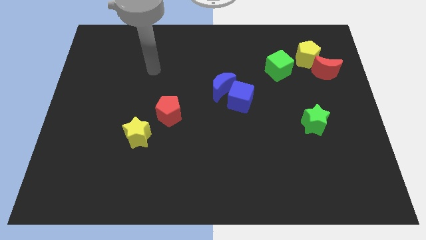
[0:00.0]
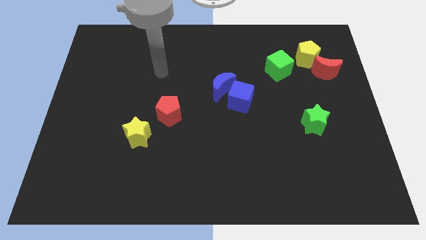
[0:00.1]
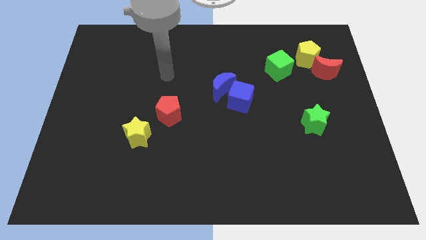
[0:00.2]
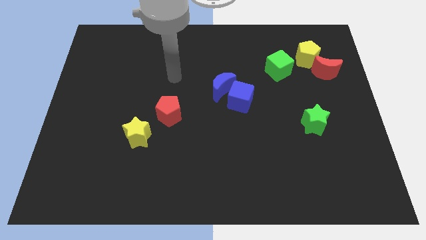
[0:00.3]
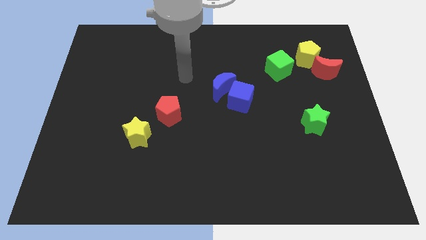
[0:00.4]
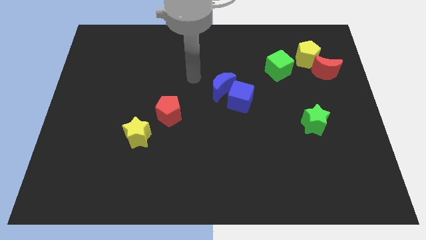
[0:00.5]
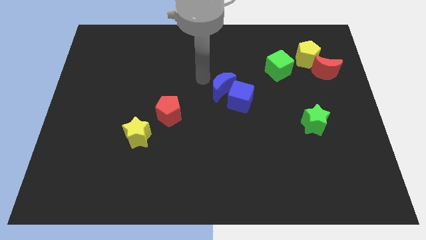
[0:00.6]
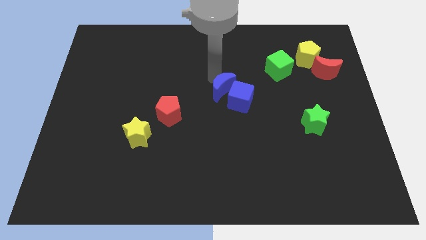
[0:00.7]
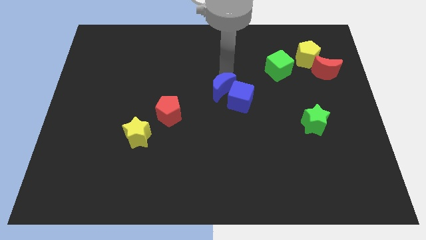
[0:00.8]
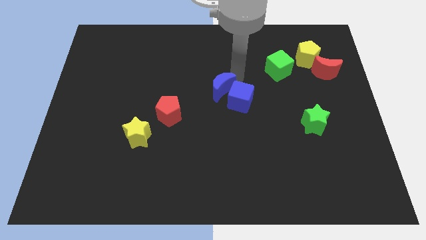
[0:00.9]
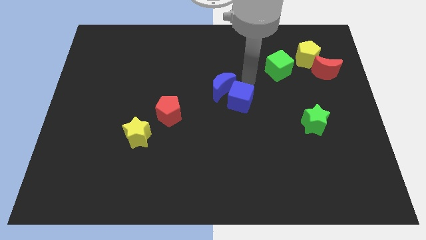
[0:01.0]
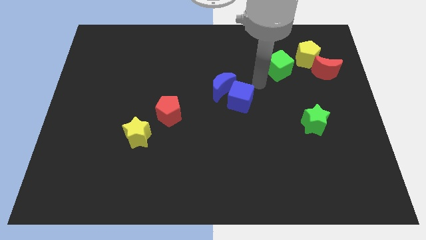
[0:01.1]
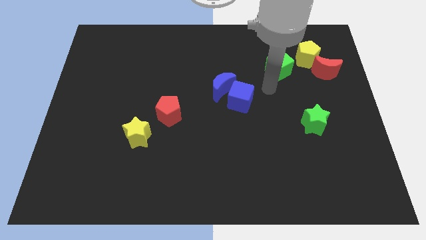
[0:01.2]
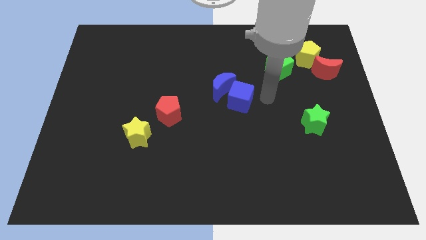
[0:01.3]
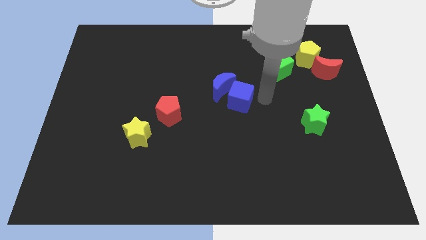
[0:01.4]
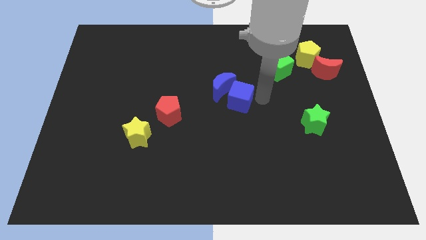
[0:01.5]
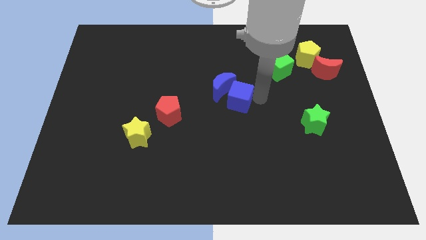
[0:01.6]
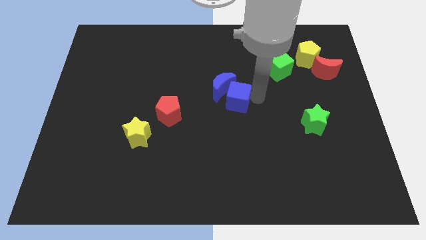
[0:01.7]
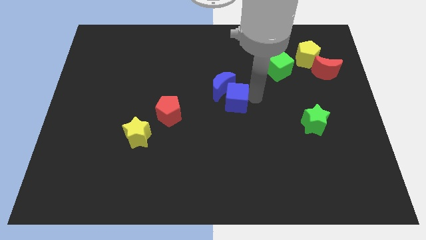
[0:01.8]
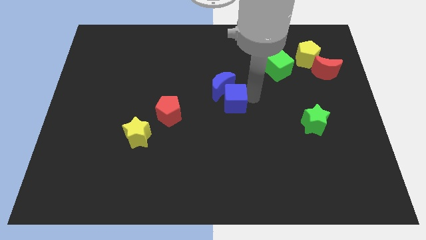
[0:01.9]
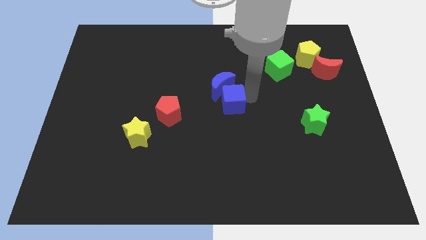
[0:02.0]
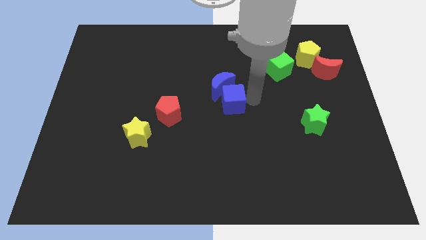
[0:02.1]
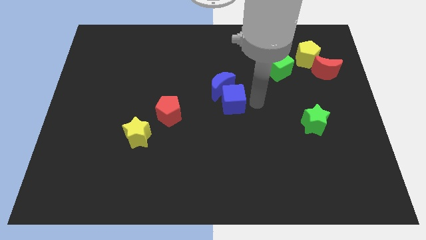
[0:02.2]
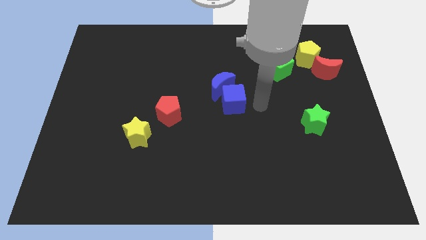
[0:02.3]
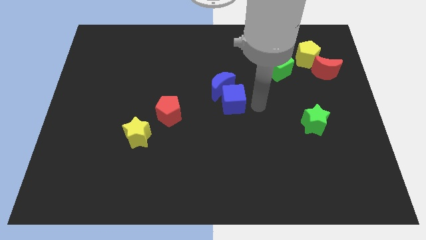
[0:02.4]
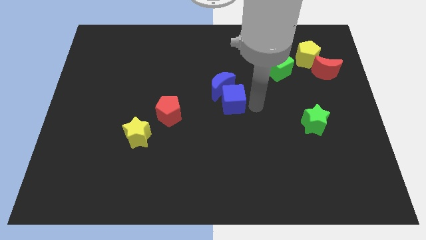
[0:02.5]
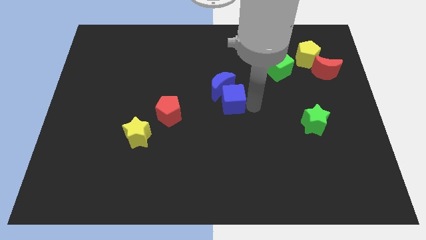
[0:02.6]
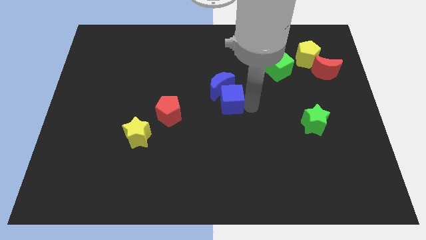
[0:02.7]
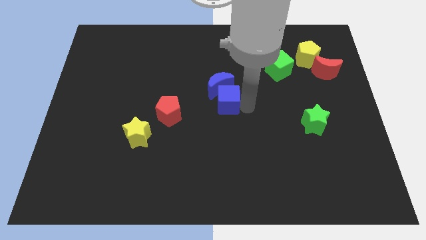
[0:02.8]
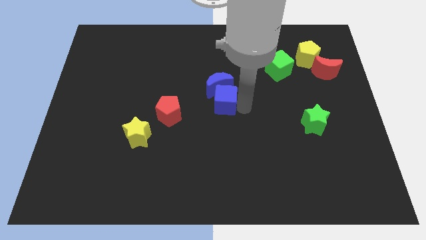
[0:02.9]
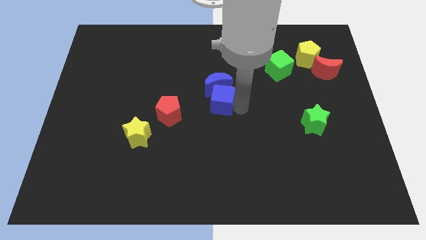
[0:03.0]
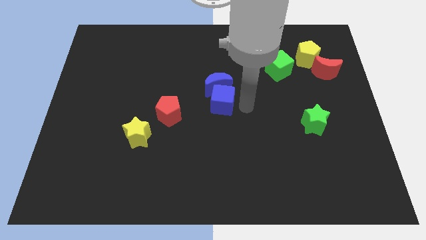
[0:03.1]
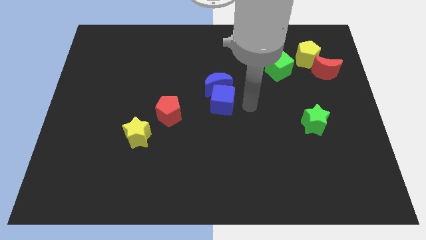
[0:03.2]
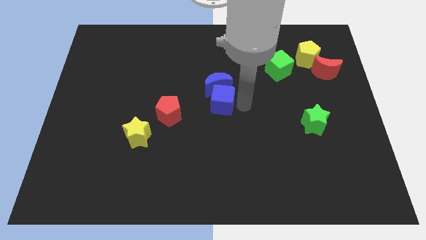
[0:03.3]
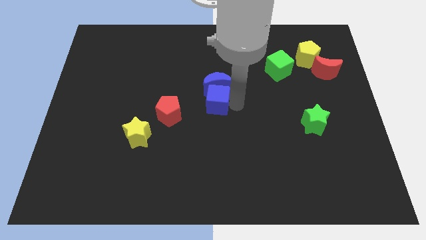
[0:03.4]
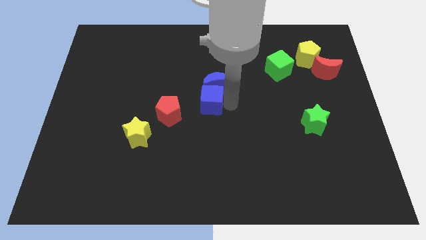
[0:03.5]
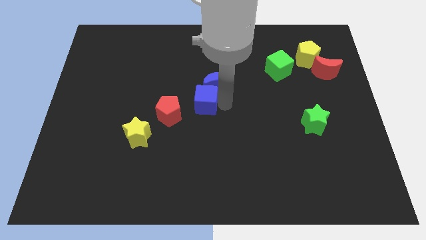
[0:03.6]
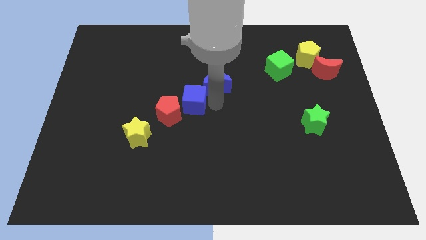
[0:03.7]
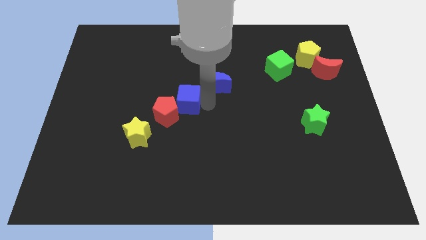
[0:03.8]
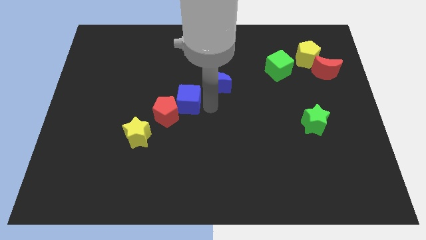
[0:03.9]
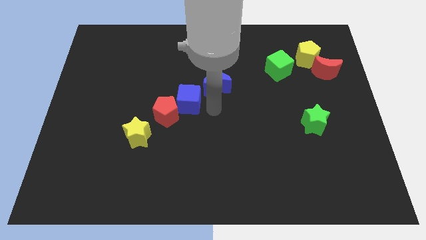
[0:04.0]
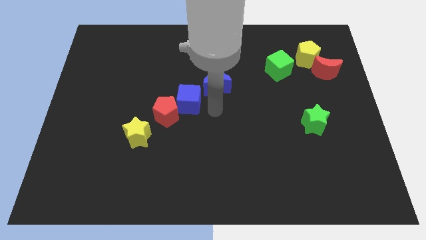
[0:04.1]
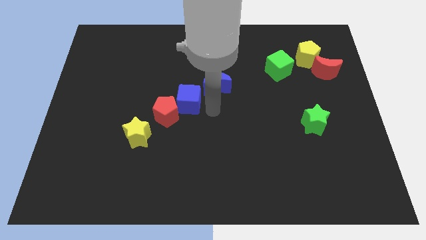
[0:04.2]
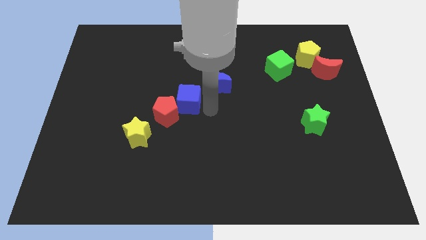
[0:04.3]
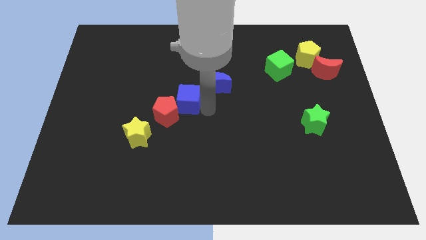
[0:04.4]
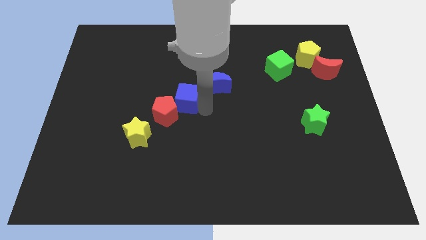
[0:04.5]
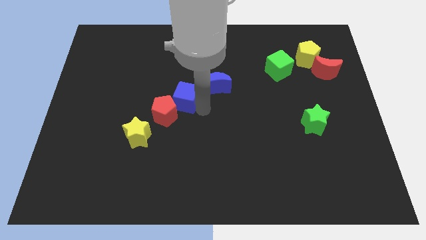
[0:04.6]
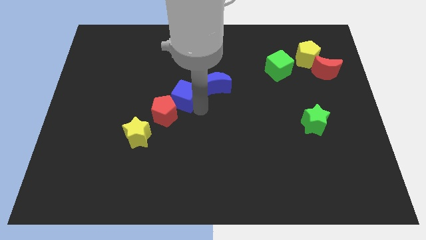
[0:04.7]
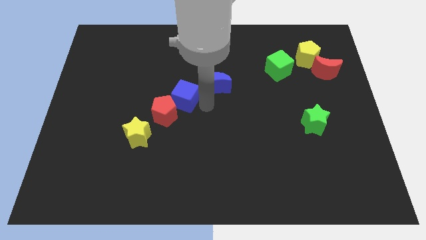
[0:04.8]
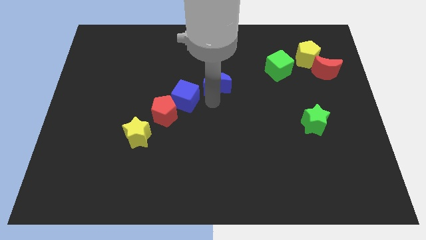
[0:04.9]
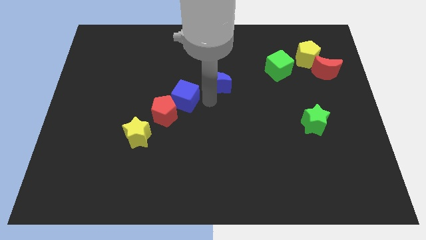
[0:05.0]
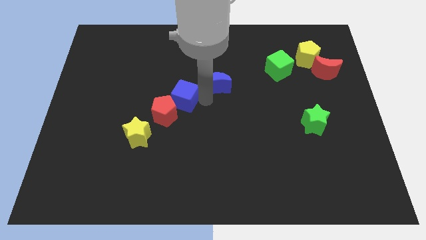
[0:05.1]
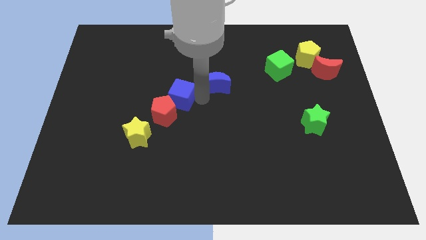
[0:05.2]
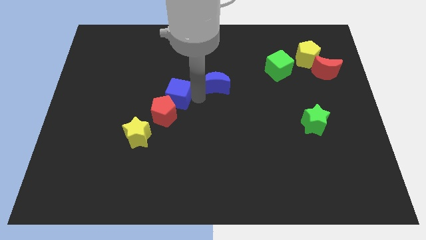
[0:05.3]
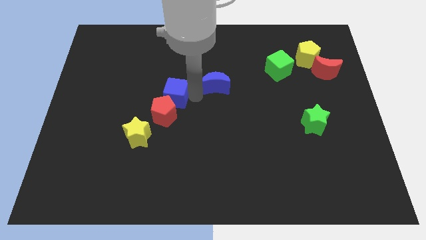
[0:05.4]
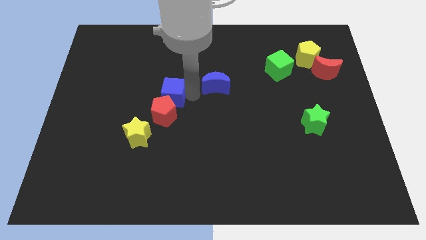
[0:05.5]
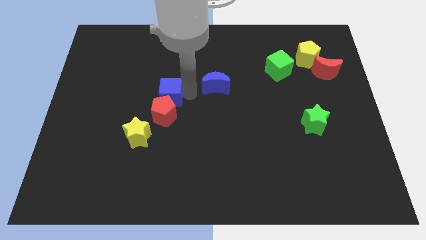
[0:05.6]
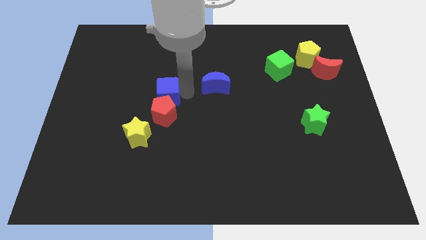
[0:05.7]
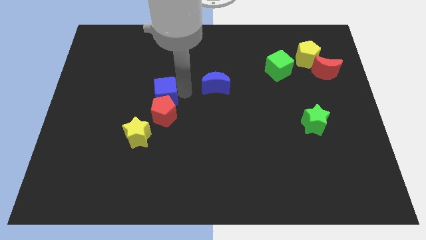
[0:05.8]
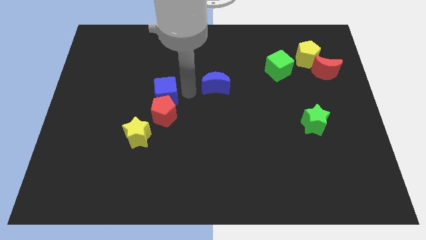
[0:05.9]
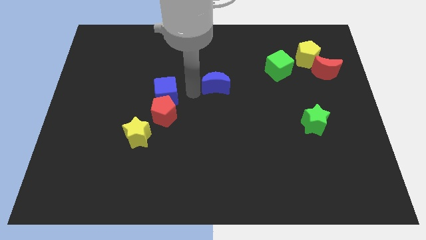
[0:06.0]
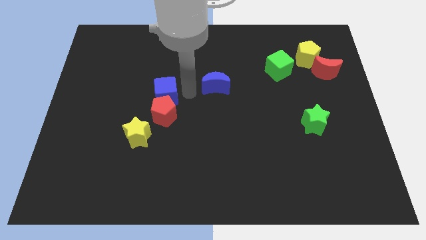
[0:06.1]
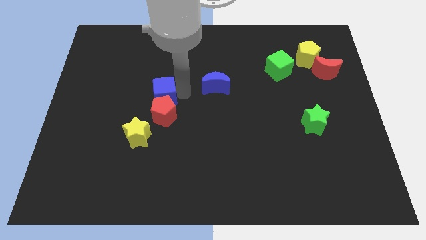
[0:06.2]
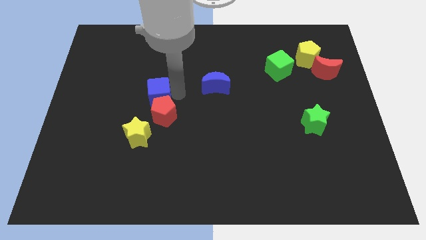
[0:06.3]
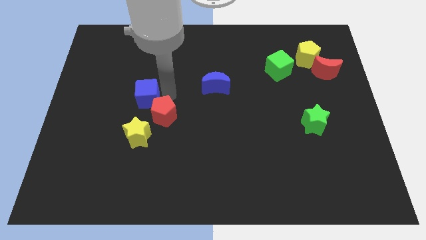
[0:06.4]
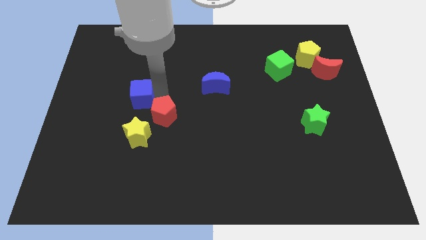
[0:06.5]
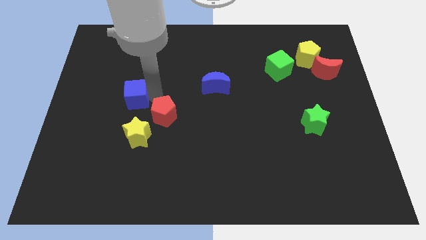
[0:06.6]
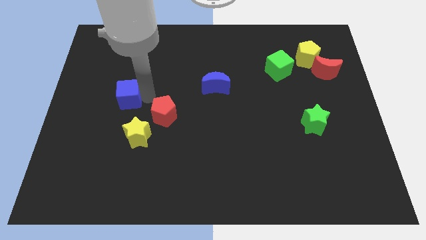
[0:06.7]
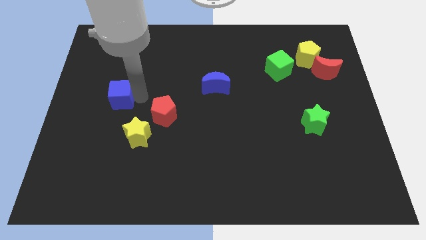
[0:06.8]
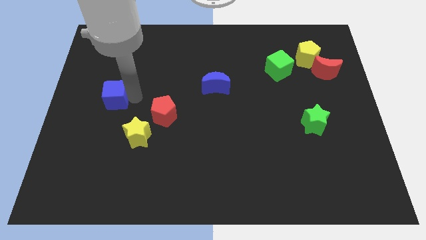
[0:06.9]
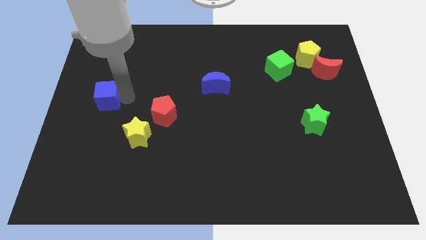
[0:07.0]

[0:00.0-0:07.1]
put the blue cube to the left side
